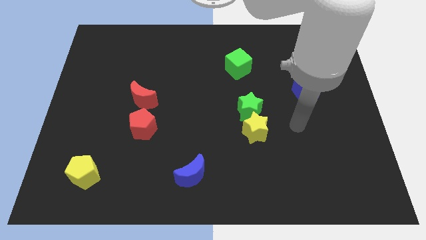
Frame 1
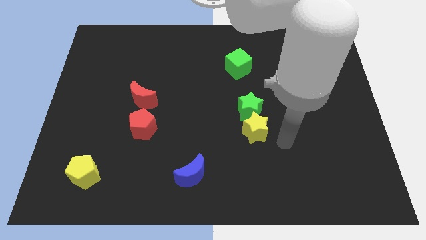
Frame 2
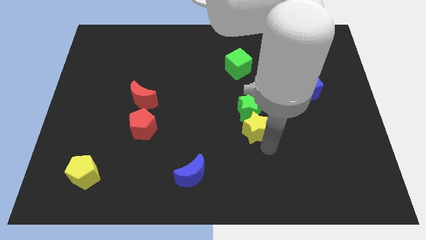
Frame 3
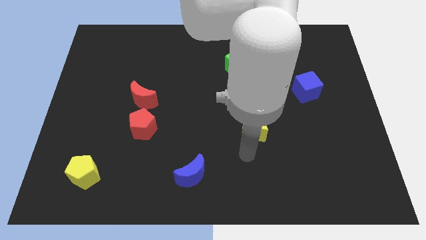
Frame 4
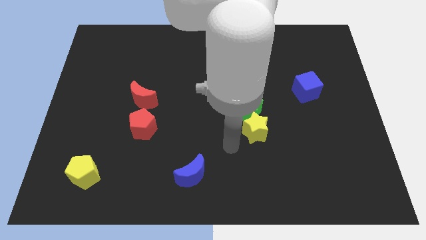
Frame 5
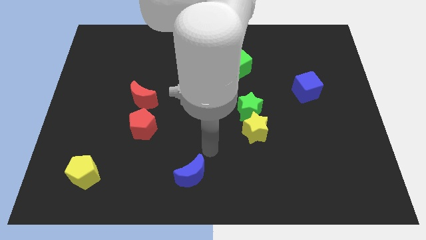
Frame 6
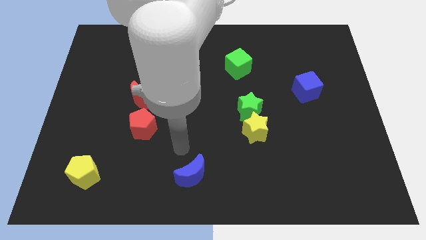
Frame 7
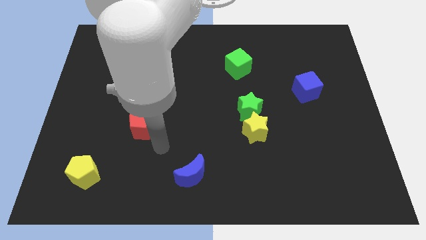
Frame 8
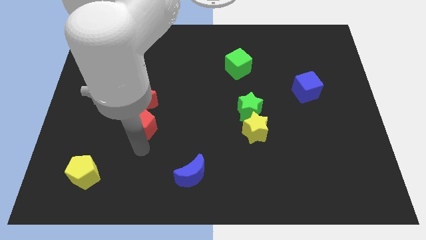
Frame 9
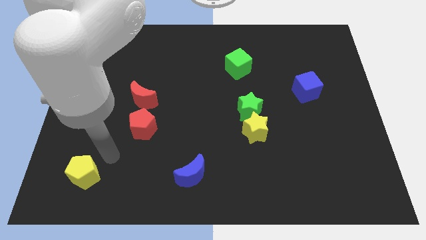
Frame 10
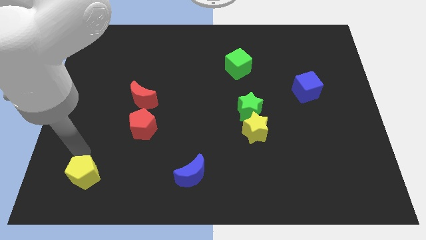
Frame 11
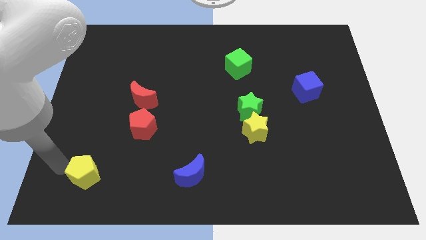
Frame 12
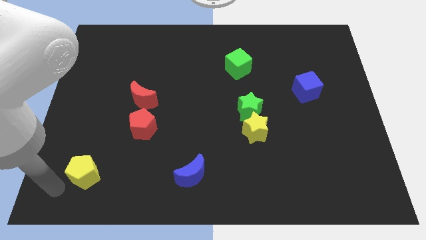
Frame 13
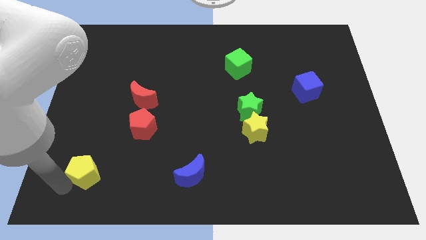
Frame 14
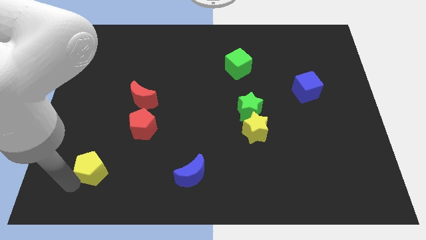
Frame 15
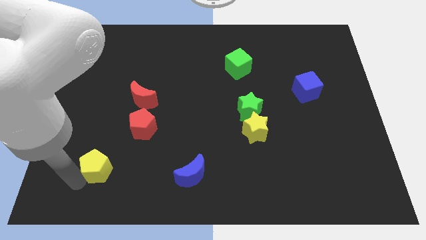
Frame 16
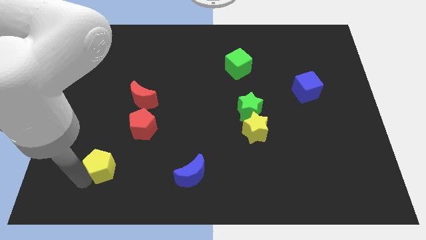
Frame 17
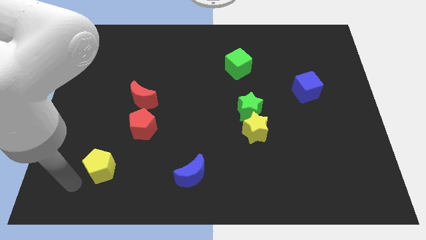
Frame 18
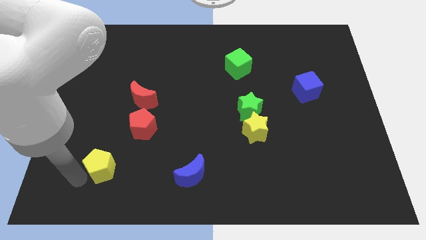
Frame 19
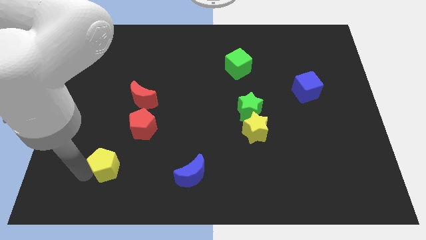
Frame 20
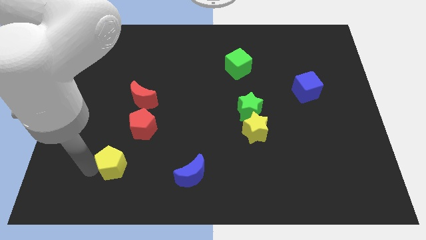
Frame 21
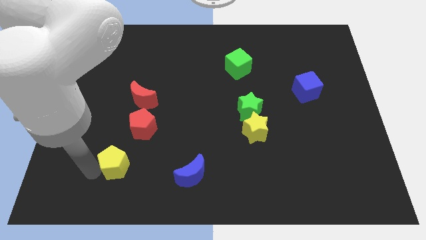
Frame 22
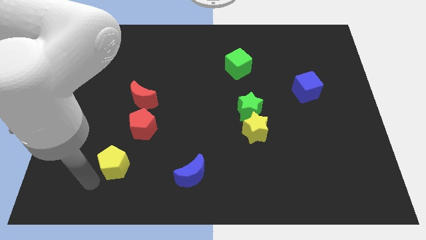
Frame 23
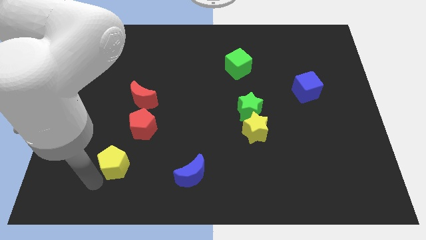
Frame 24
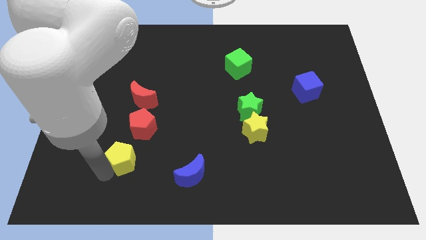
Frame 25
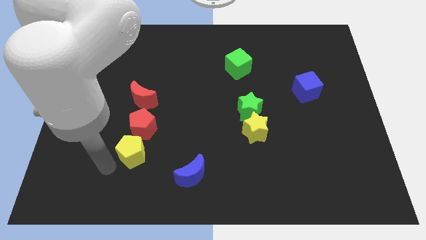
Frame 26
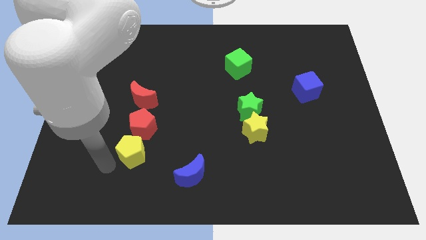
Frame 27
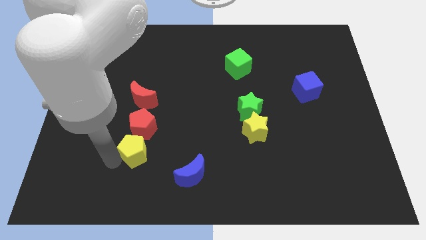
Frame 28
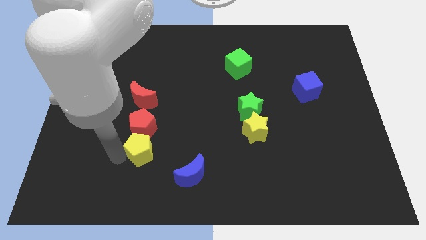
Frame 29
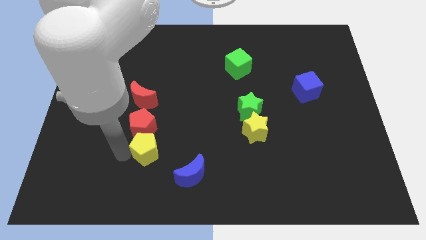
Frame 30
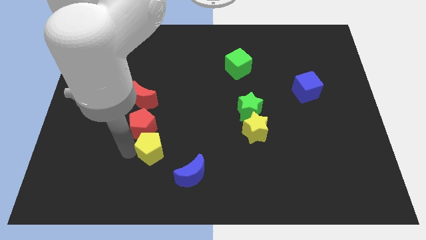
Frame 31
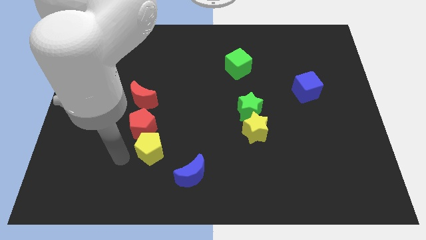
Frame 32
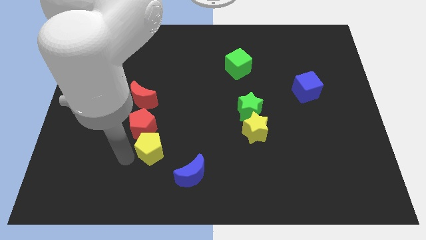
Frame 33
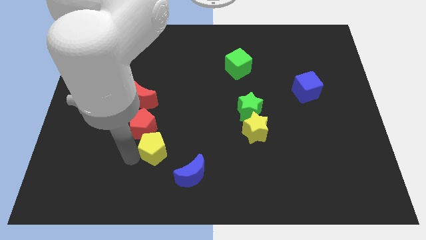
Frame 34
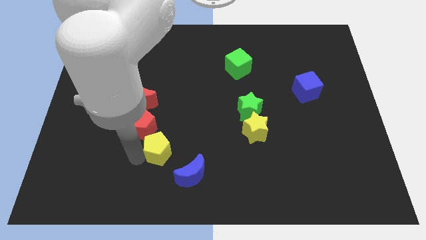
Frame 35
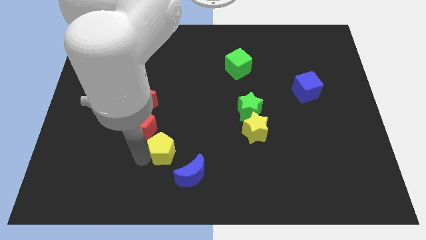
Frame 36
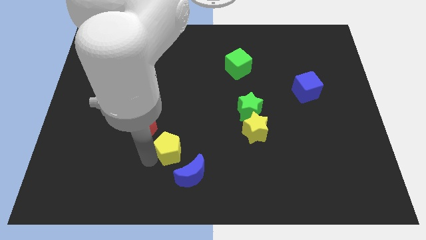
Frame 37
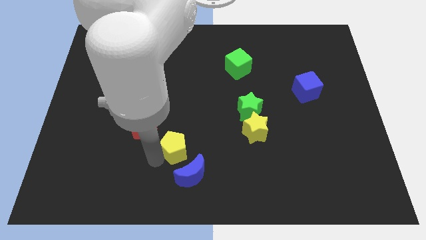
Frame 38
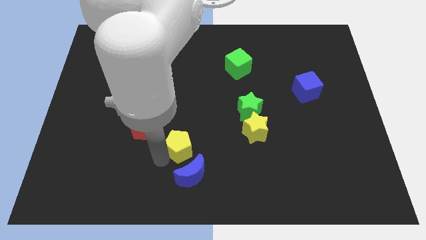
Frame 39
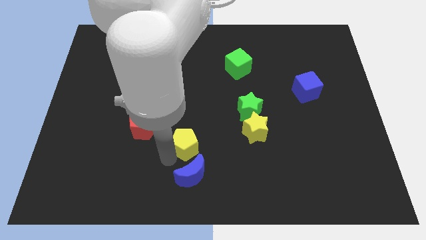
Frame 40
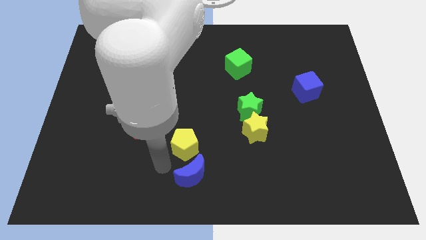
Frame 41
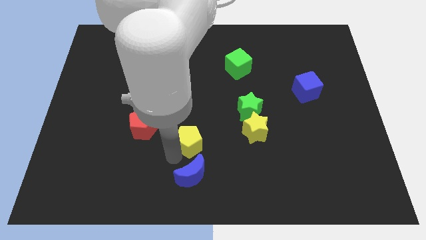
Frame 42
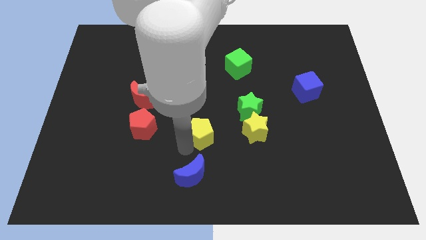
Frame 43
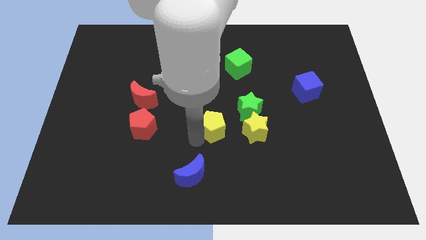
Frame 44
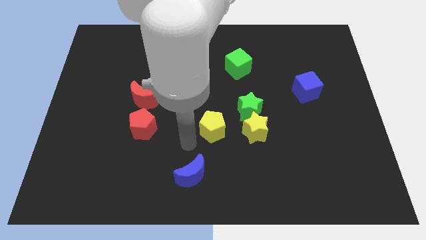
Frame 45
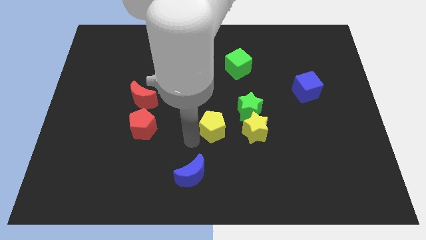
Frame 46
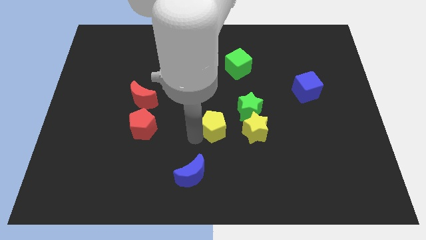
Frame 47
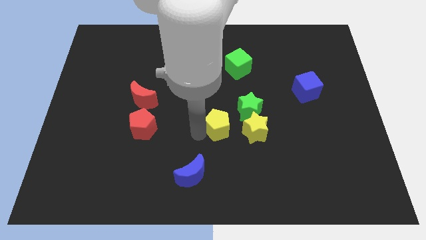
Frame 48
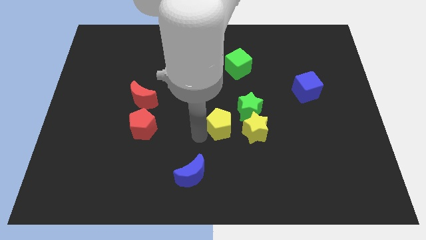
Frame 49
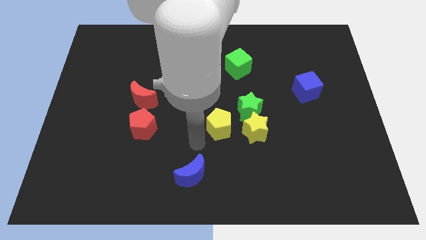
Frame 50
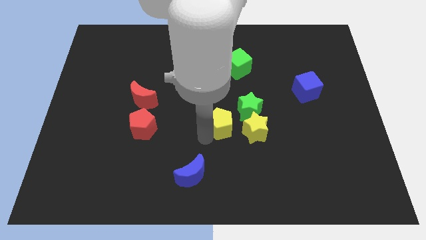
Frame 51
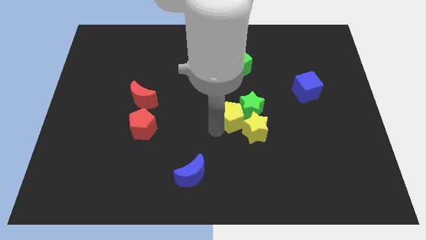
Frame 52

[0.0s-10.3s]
push the yellow pentagon to the green star

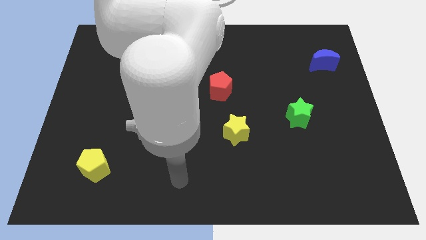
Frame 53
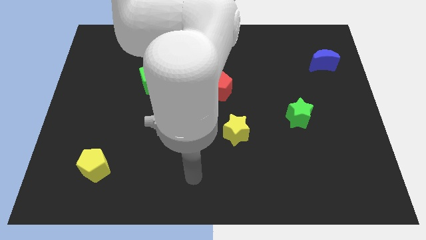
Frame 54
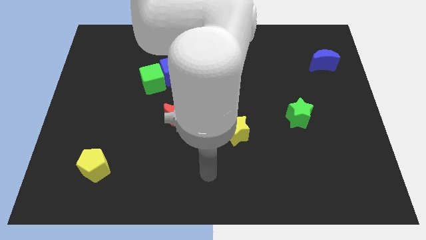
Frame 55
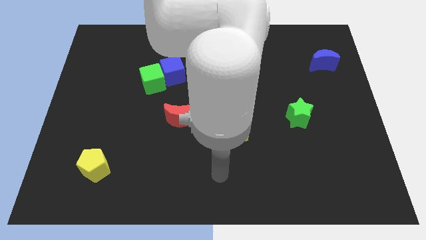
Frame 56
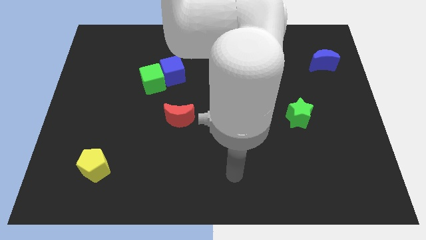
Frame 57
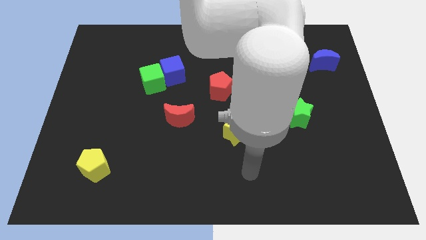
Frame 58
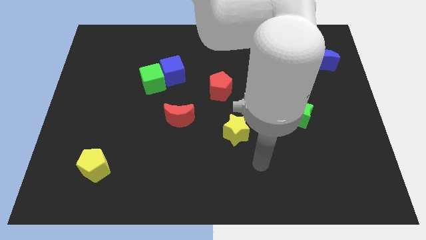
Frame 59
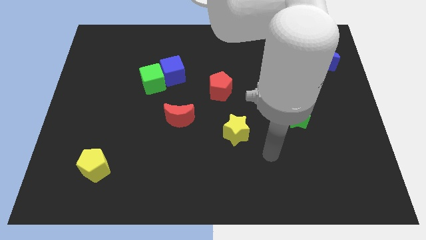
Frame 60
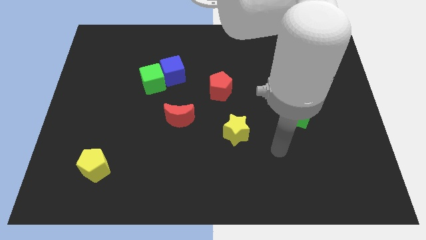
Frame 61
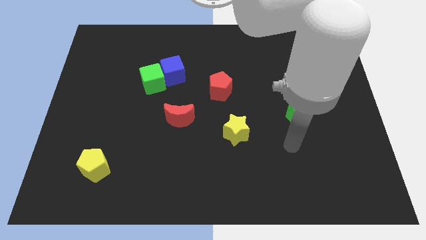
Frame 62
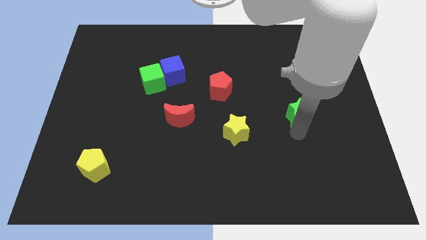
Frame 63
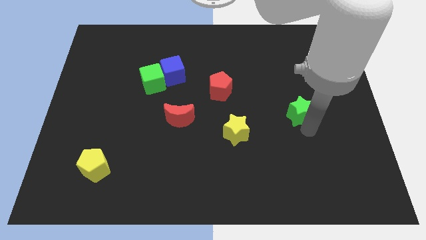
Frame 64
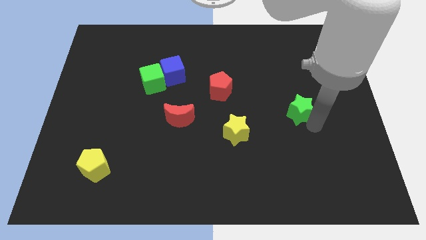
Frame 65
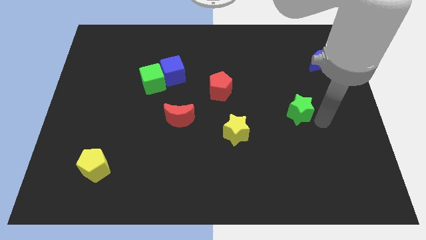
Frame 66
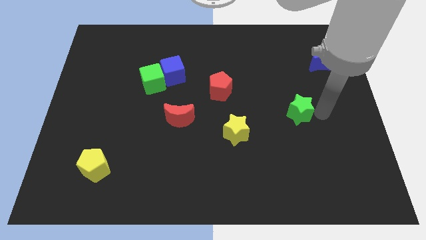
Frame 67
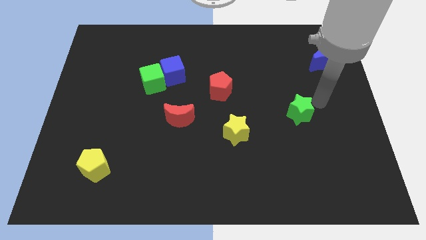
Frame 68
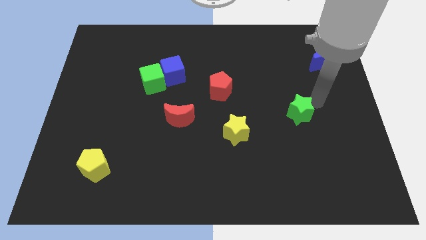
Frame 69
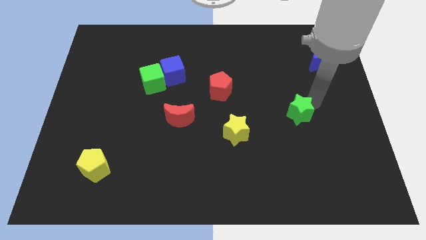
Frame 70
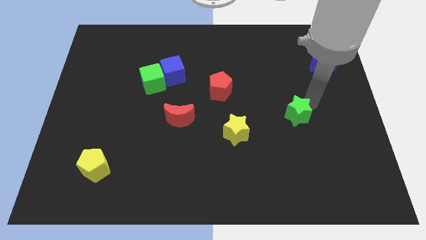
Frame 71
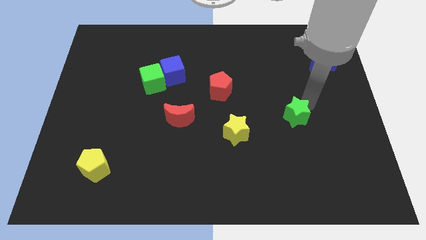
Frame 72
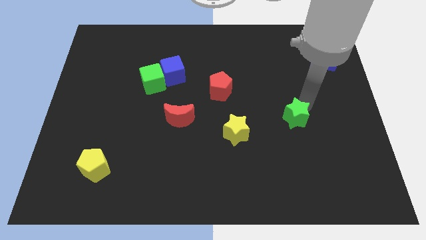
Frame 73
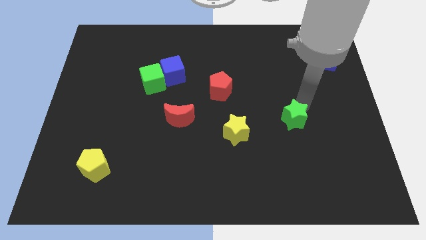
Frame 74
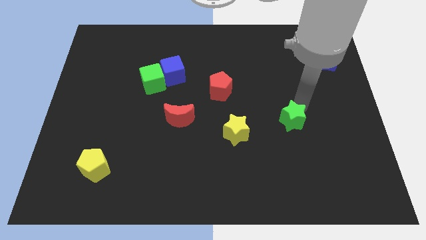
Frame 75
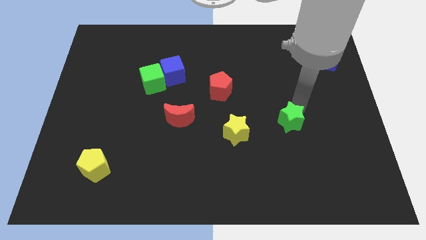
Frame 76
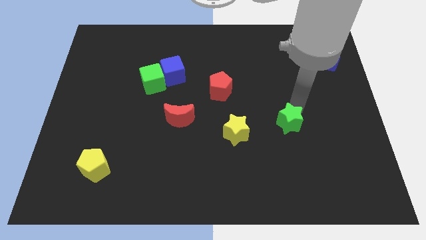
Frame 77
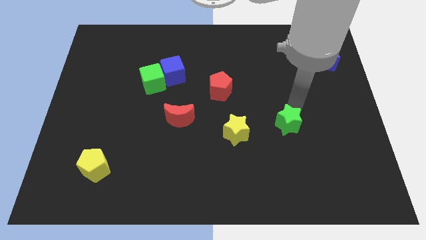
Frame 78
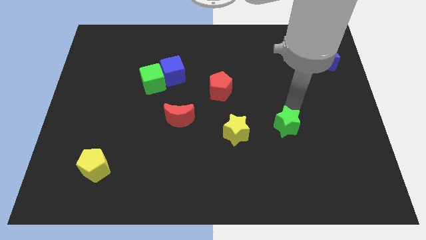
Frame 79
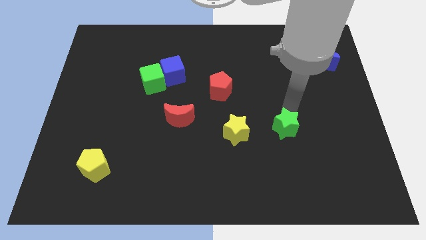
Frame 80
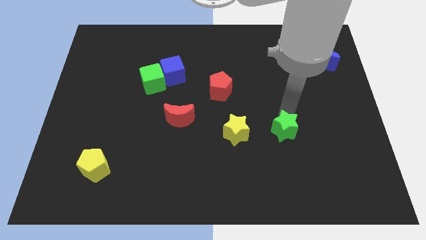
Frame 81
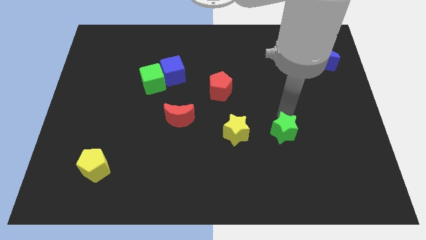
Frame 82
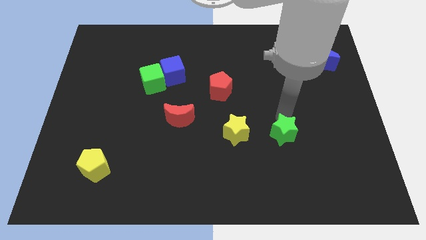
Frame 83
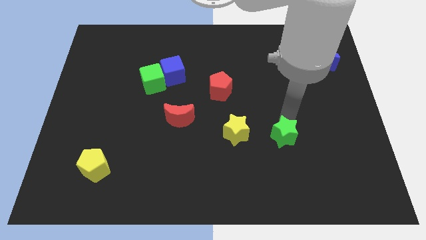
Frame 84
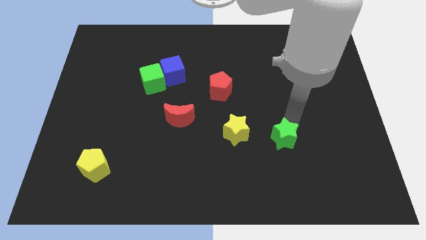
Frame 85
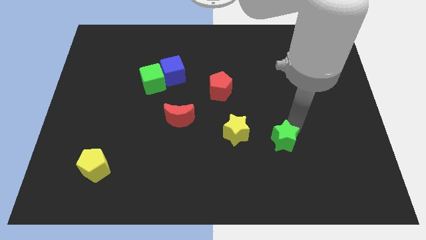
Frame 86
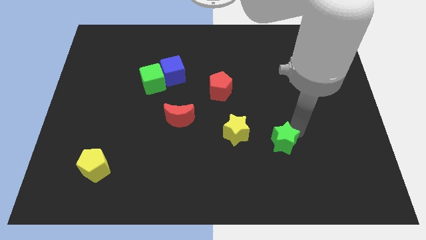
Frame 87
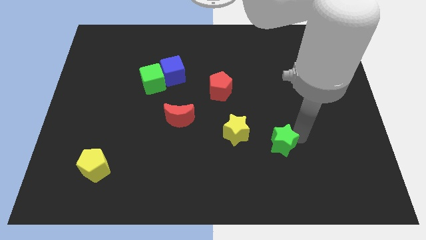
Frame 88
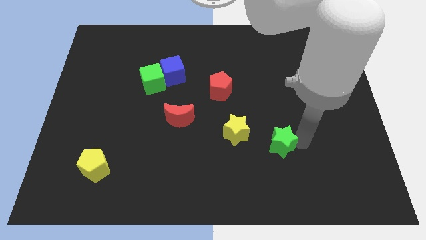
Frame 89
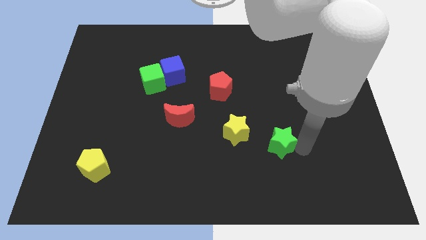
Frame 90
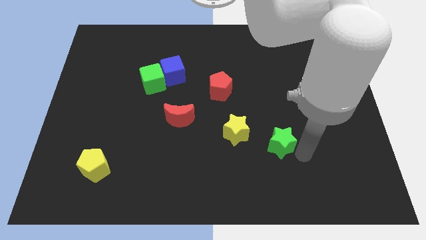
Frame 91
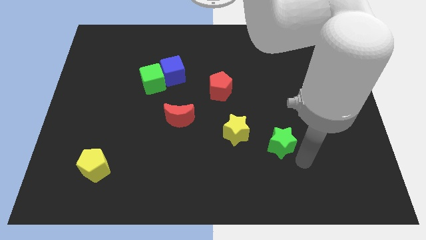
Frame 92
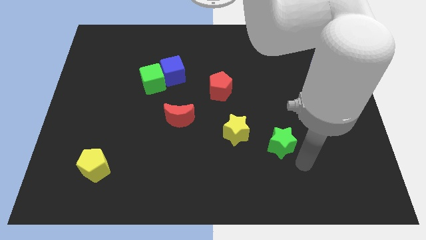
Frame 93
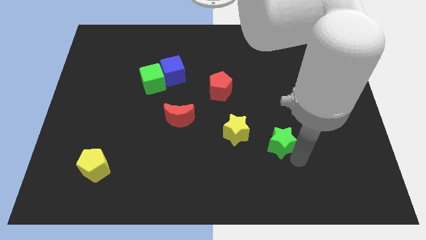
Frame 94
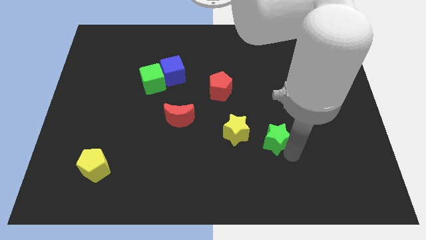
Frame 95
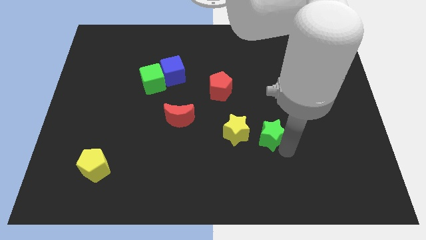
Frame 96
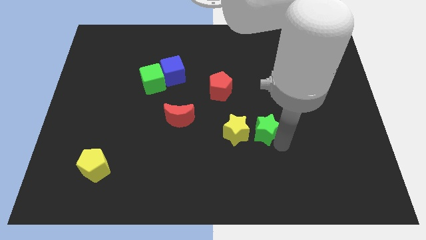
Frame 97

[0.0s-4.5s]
push the green star to the yellow star
